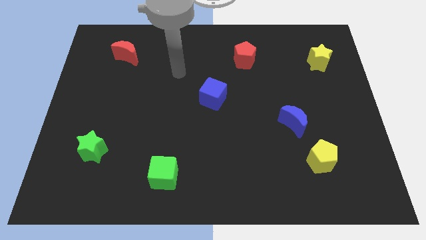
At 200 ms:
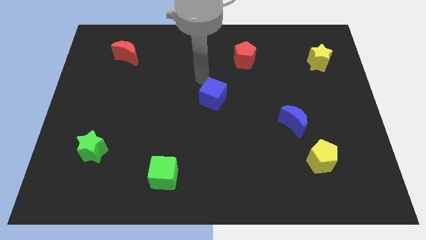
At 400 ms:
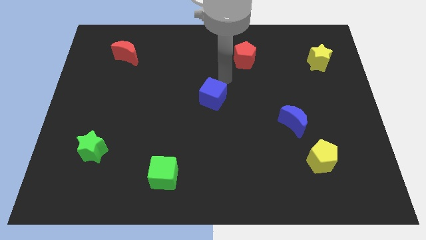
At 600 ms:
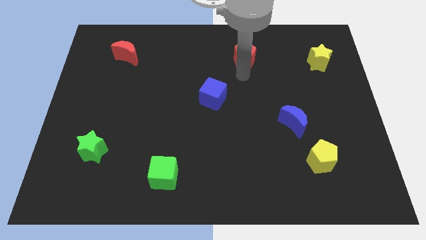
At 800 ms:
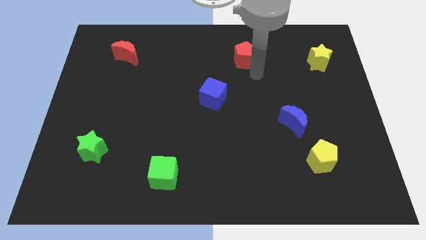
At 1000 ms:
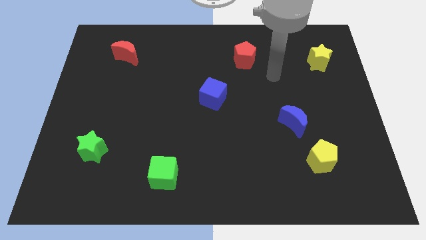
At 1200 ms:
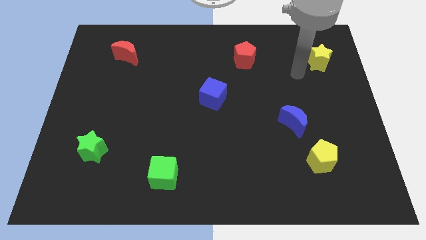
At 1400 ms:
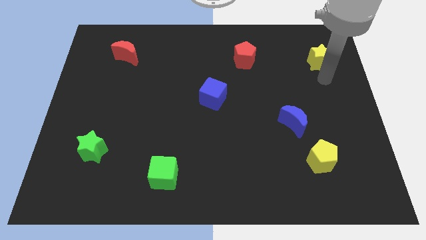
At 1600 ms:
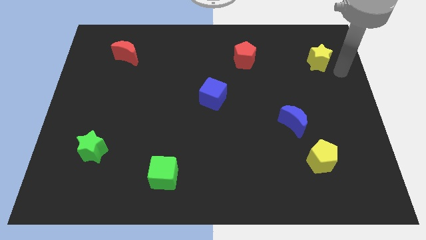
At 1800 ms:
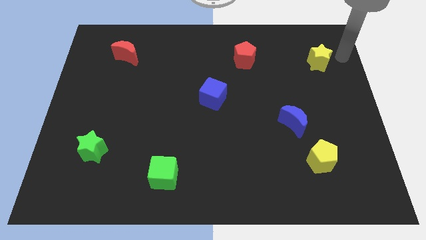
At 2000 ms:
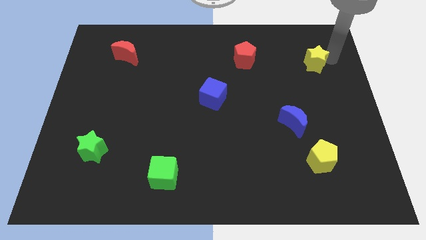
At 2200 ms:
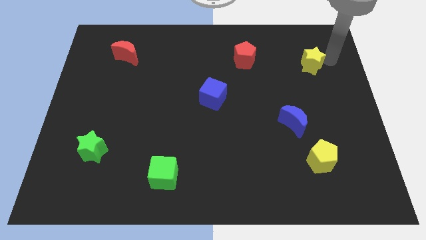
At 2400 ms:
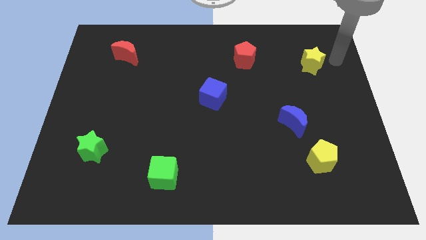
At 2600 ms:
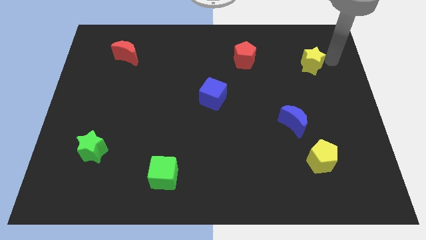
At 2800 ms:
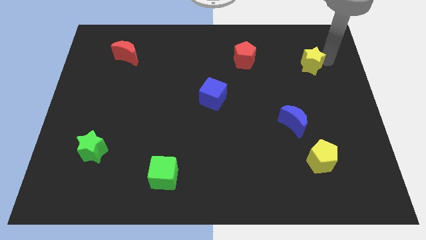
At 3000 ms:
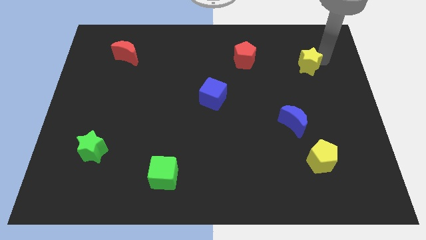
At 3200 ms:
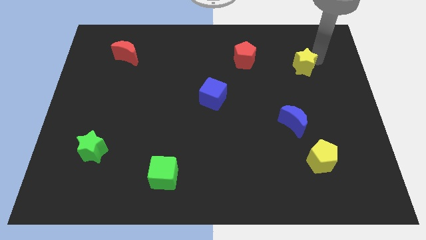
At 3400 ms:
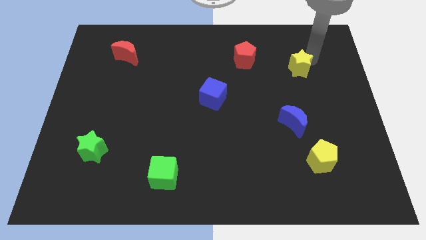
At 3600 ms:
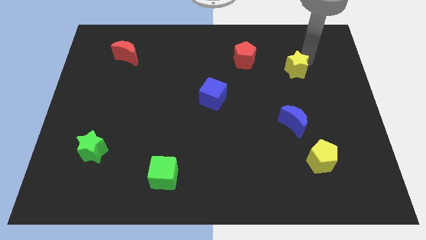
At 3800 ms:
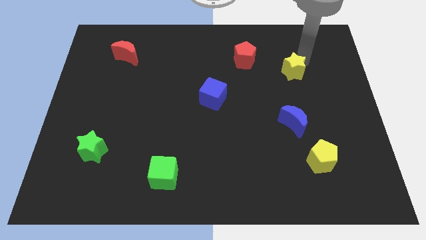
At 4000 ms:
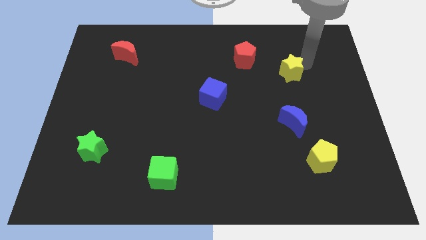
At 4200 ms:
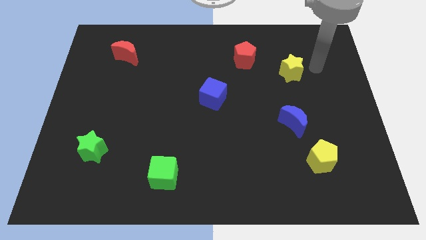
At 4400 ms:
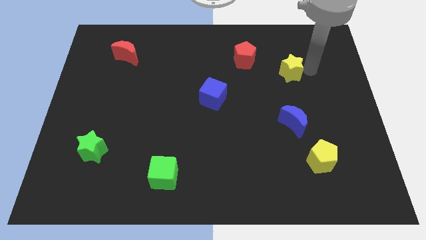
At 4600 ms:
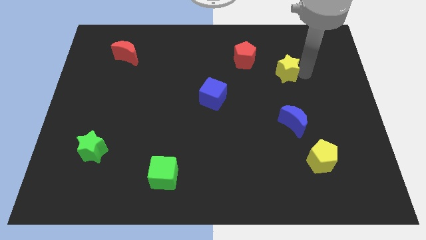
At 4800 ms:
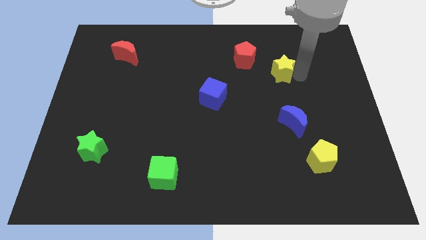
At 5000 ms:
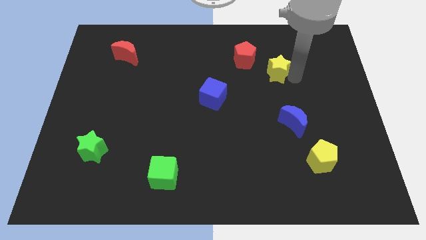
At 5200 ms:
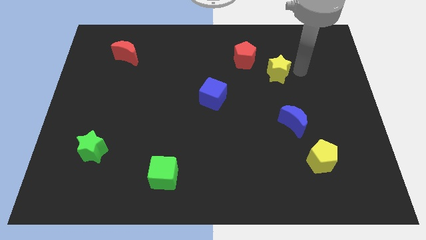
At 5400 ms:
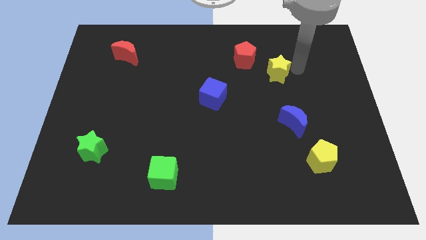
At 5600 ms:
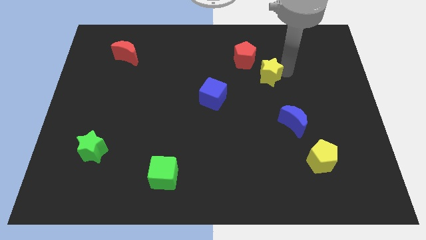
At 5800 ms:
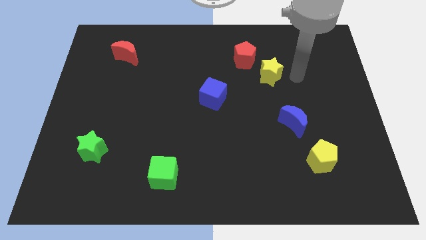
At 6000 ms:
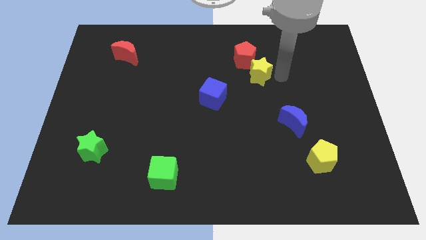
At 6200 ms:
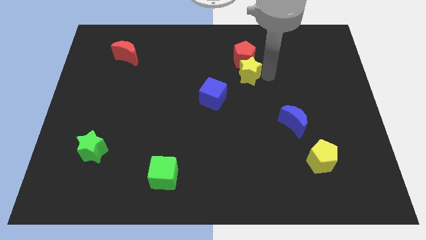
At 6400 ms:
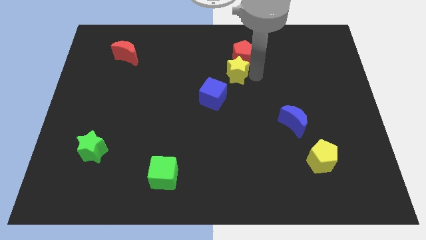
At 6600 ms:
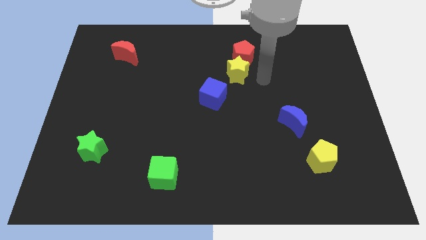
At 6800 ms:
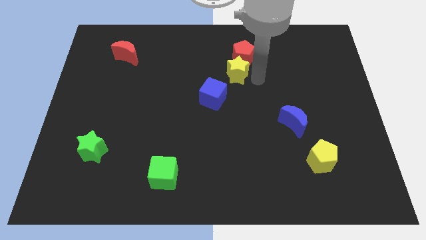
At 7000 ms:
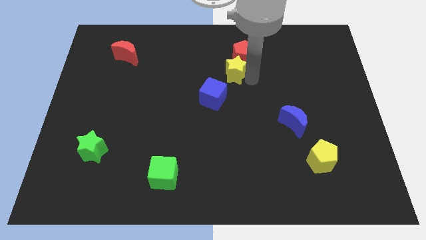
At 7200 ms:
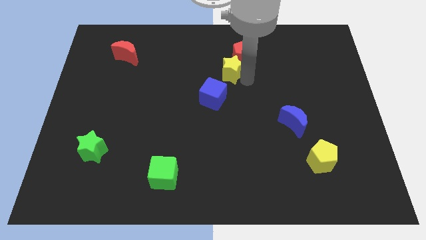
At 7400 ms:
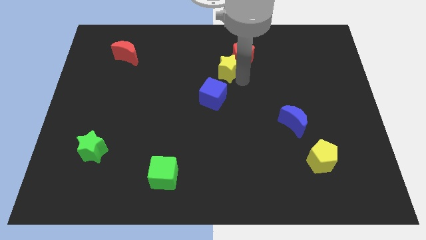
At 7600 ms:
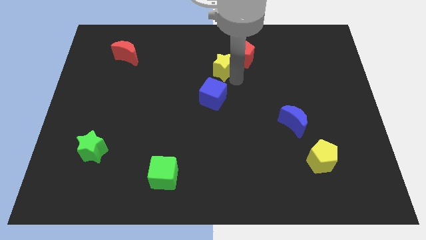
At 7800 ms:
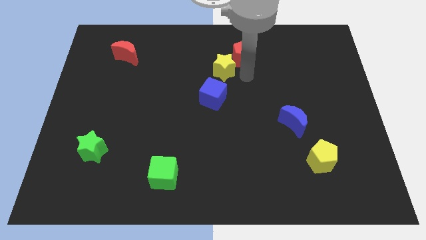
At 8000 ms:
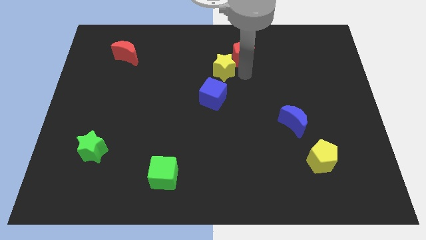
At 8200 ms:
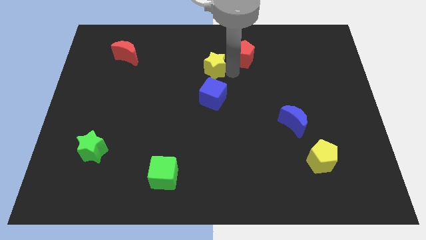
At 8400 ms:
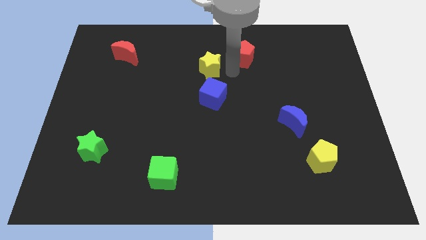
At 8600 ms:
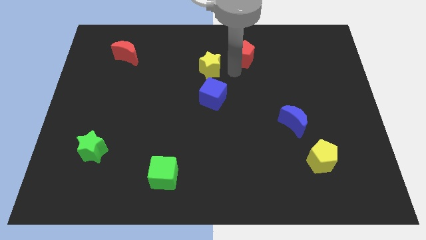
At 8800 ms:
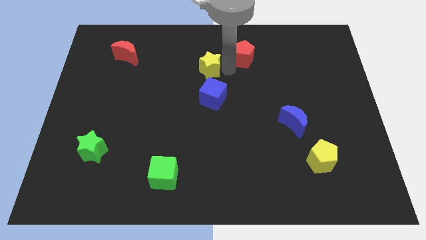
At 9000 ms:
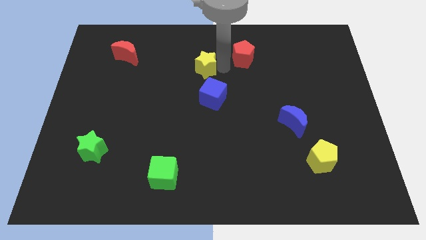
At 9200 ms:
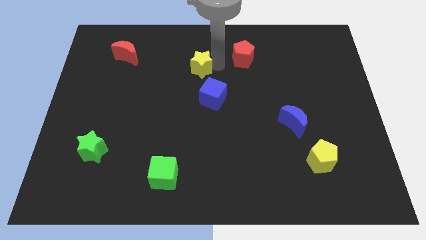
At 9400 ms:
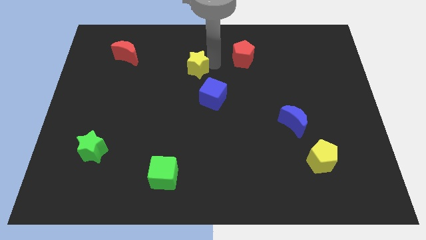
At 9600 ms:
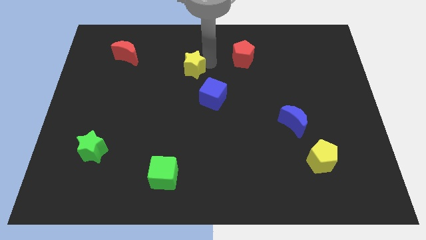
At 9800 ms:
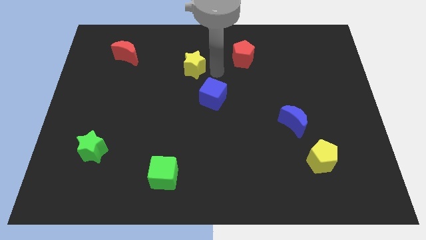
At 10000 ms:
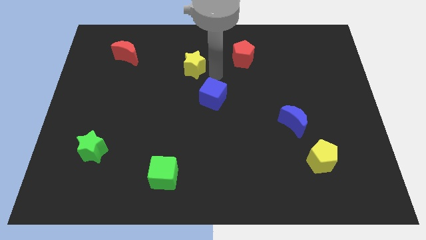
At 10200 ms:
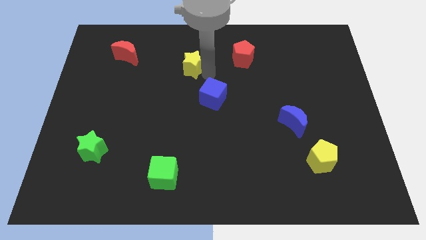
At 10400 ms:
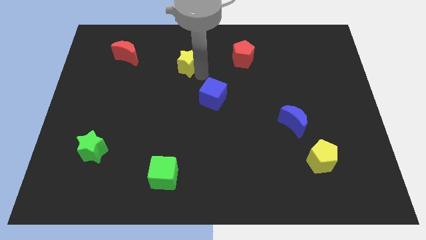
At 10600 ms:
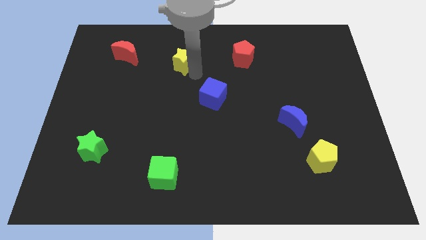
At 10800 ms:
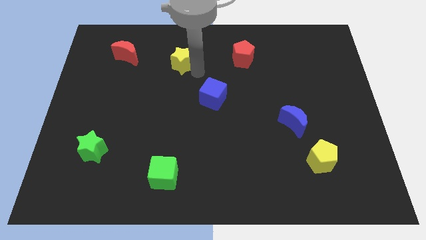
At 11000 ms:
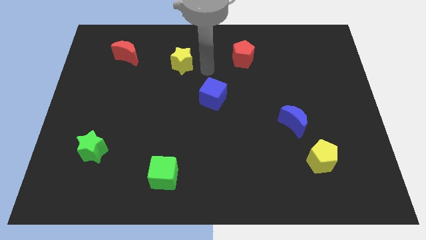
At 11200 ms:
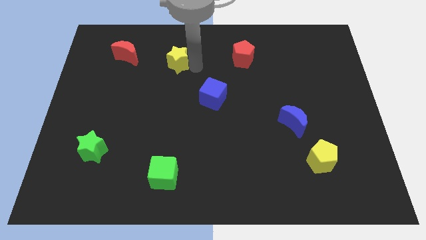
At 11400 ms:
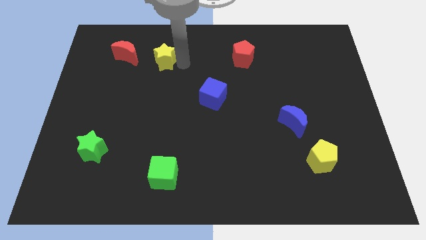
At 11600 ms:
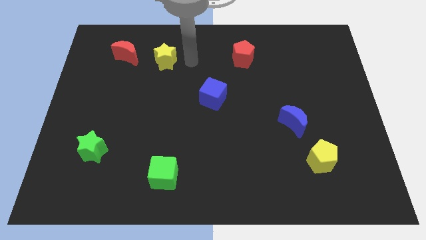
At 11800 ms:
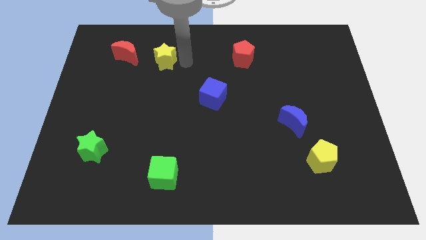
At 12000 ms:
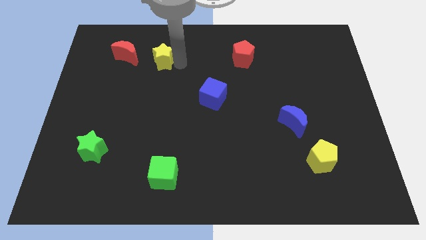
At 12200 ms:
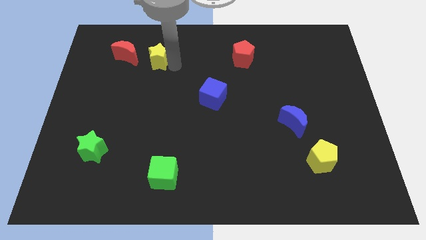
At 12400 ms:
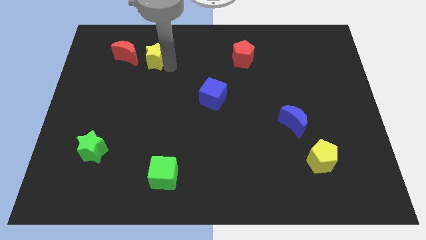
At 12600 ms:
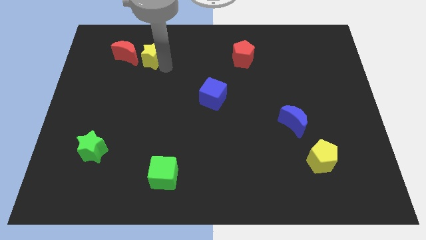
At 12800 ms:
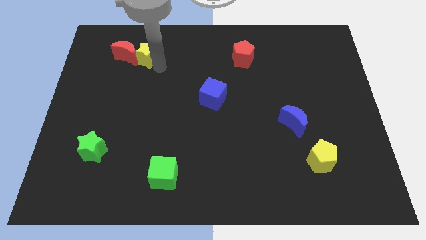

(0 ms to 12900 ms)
move the yellow star towards the red moon
